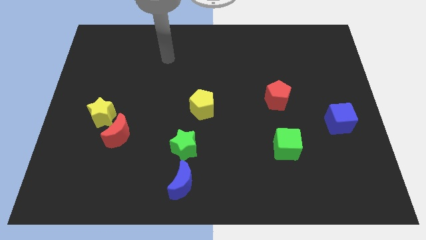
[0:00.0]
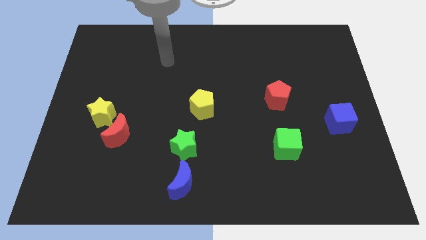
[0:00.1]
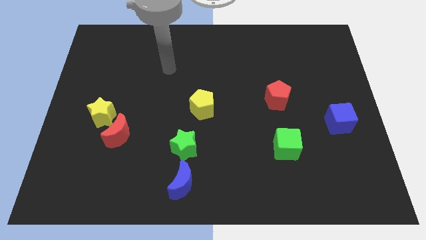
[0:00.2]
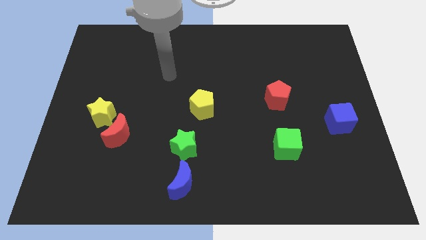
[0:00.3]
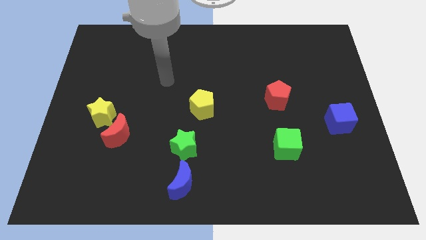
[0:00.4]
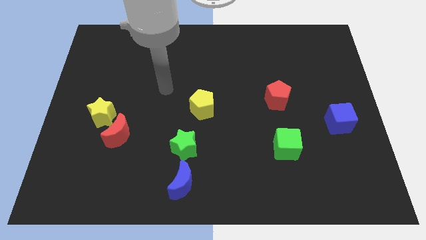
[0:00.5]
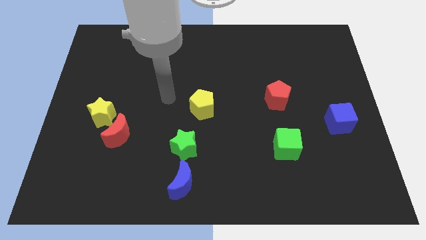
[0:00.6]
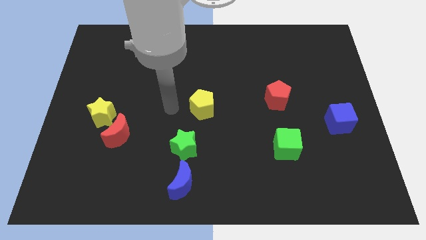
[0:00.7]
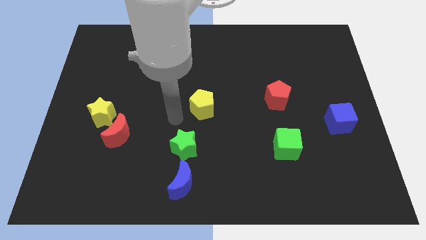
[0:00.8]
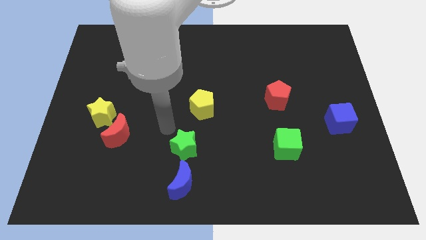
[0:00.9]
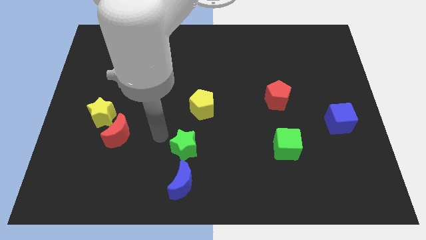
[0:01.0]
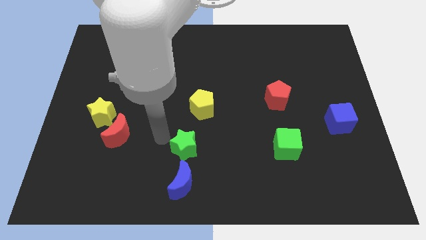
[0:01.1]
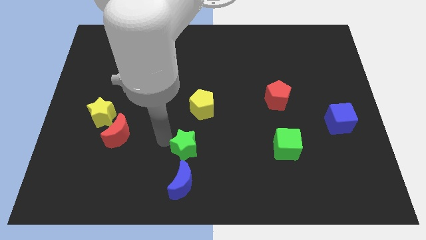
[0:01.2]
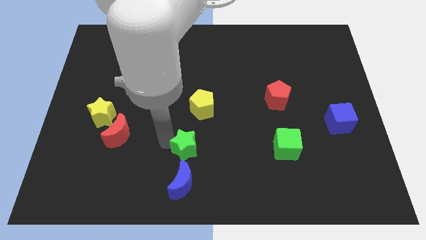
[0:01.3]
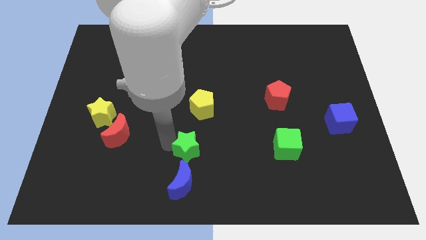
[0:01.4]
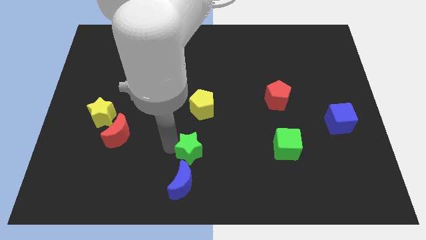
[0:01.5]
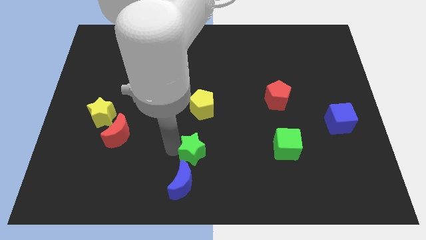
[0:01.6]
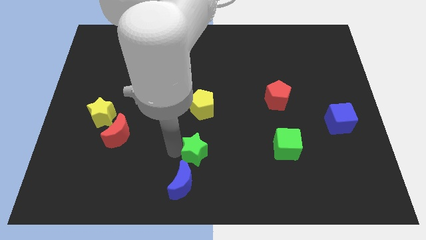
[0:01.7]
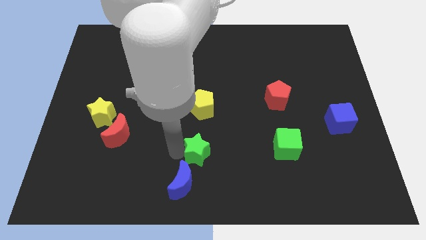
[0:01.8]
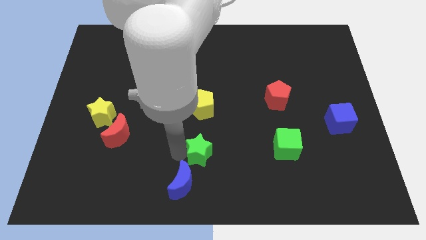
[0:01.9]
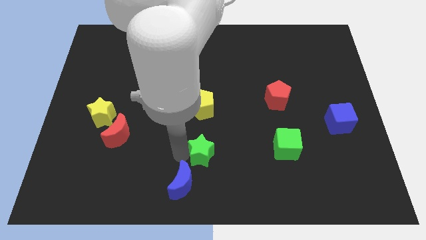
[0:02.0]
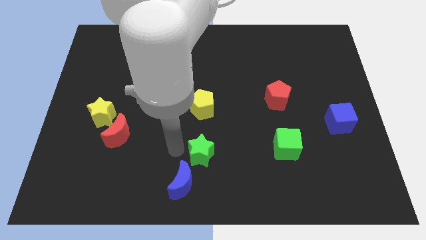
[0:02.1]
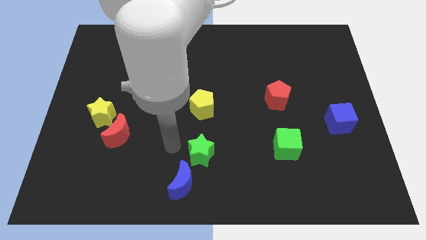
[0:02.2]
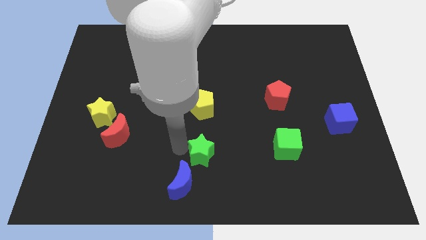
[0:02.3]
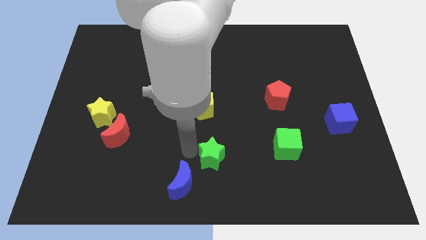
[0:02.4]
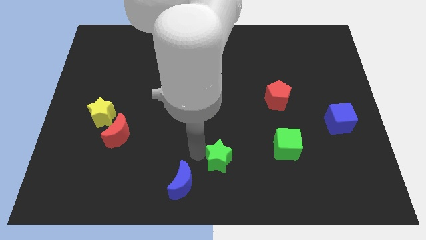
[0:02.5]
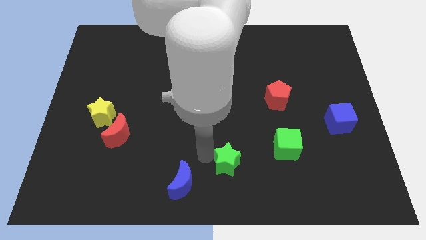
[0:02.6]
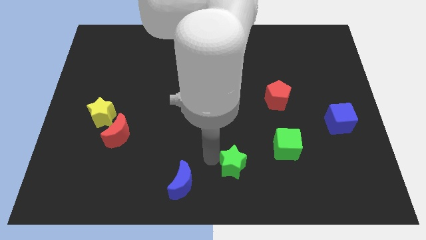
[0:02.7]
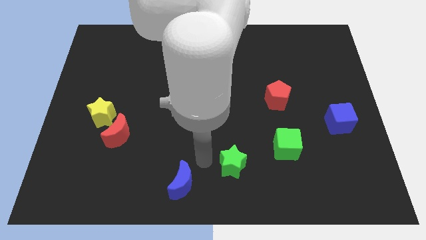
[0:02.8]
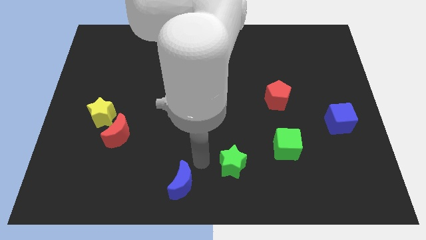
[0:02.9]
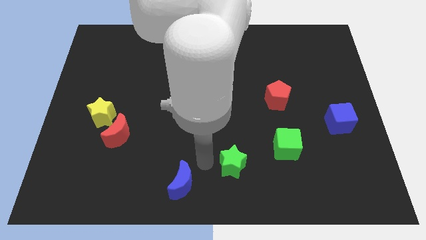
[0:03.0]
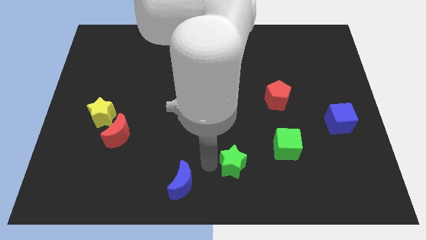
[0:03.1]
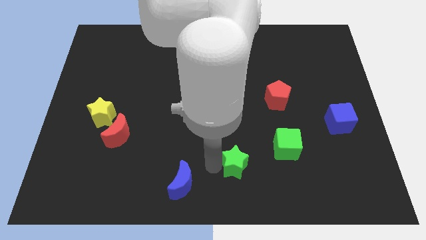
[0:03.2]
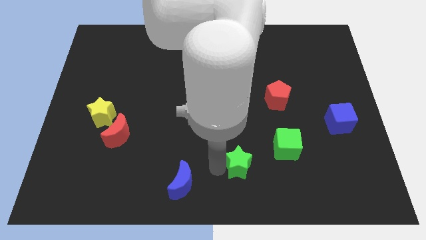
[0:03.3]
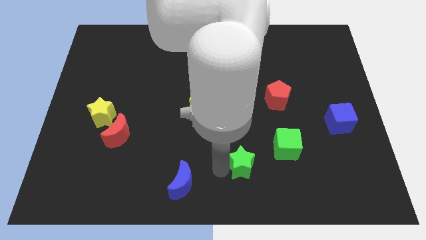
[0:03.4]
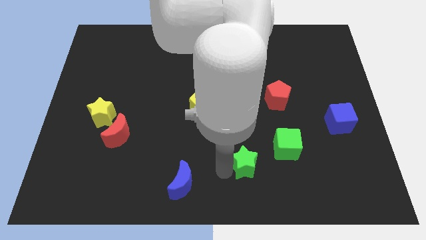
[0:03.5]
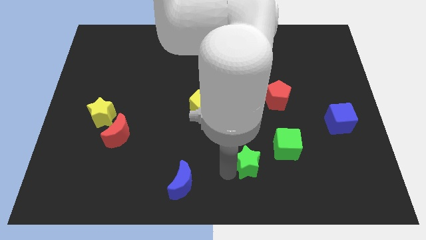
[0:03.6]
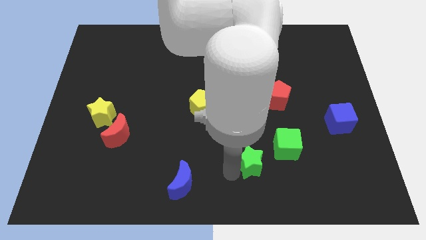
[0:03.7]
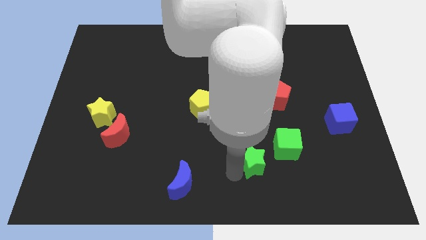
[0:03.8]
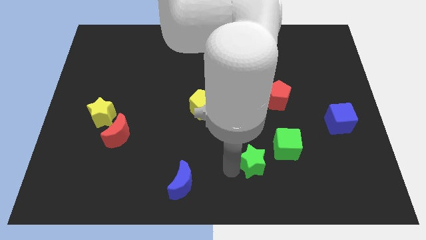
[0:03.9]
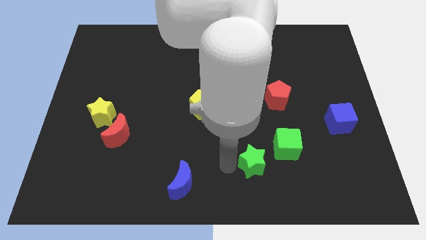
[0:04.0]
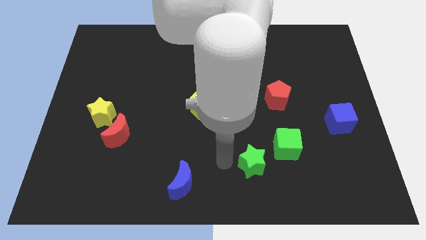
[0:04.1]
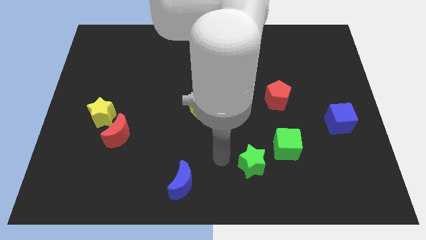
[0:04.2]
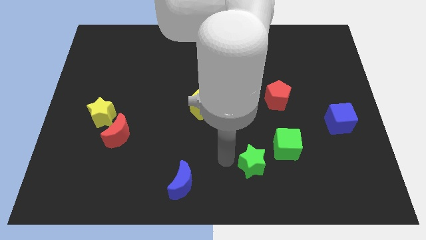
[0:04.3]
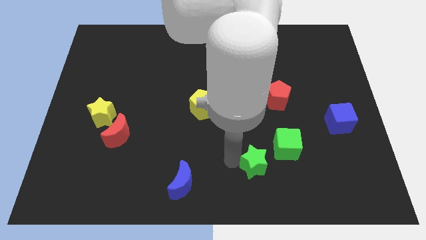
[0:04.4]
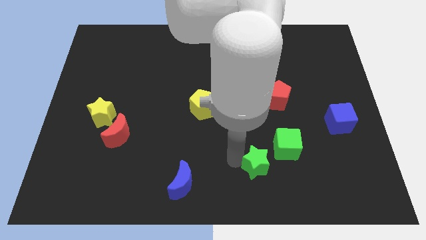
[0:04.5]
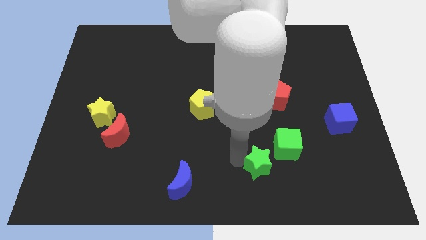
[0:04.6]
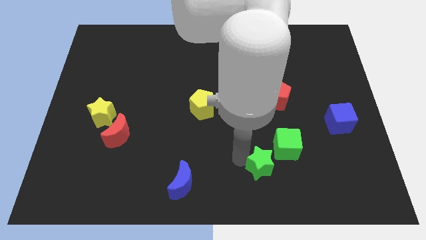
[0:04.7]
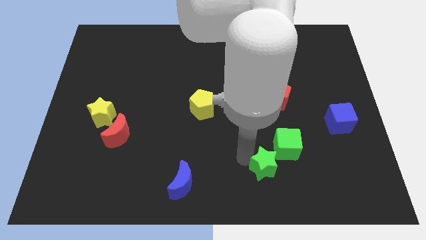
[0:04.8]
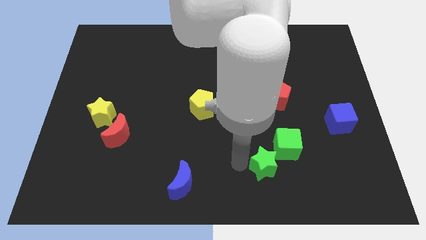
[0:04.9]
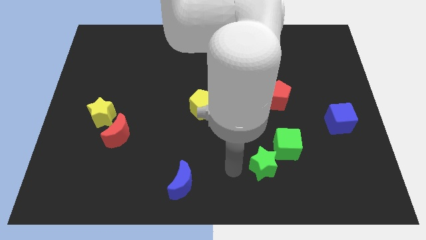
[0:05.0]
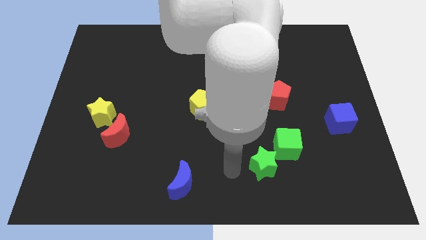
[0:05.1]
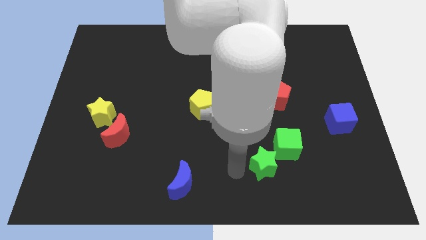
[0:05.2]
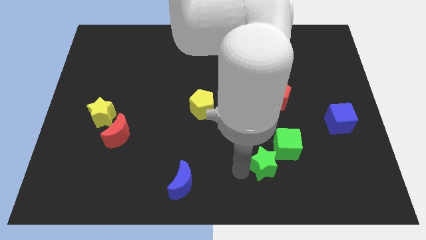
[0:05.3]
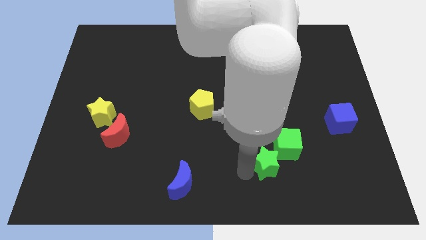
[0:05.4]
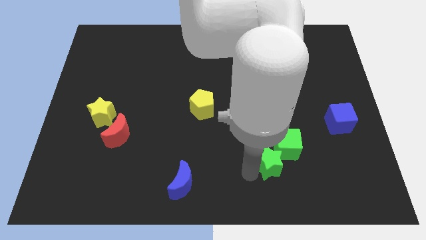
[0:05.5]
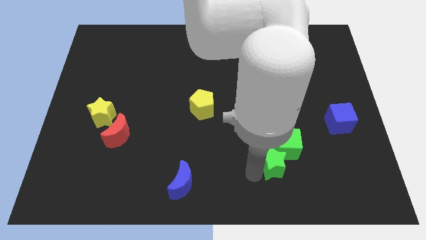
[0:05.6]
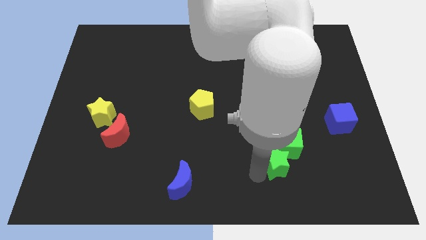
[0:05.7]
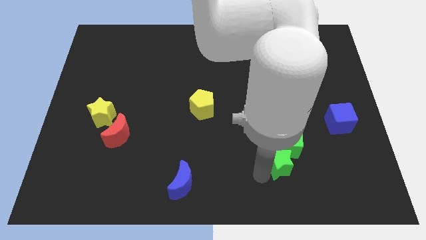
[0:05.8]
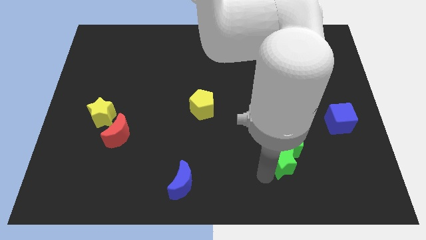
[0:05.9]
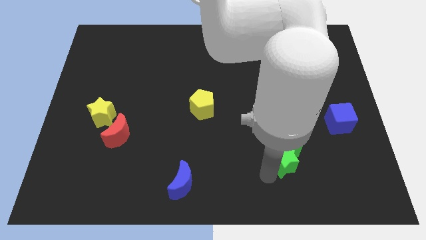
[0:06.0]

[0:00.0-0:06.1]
slide the green star to the right

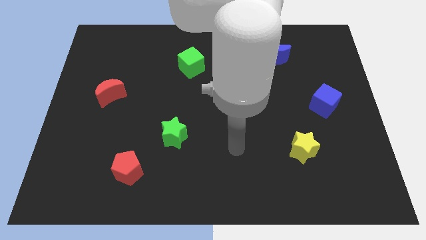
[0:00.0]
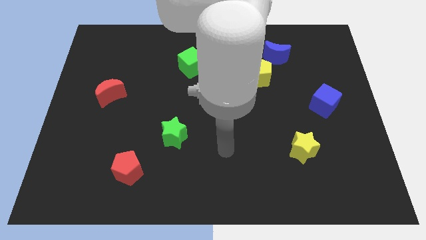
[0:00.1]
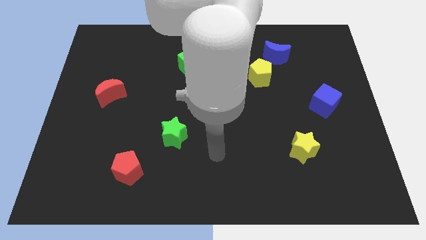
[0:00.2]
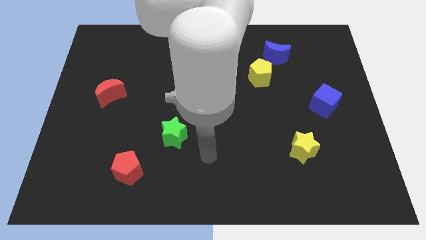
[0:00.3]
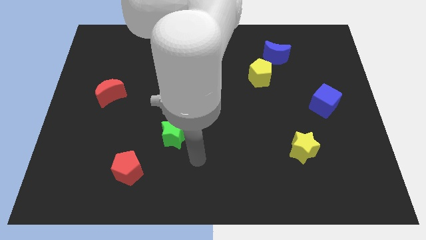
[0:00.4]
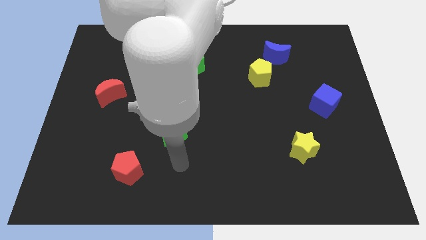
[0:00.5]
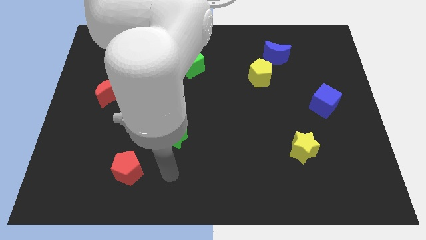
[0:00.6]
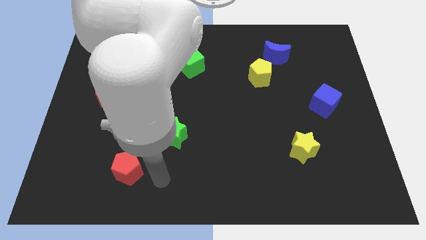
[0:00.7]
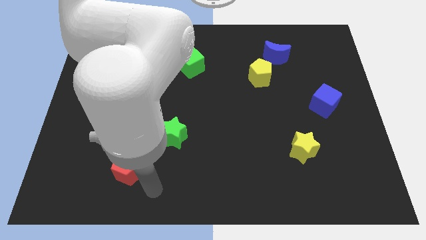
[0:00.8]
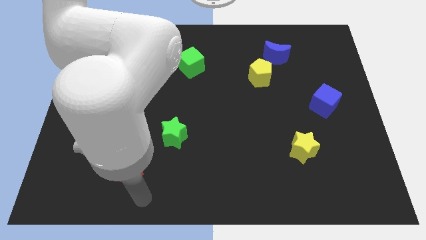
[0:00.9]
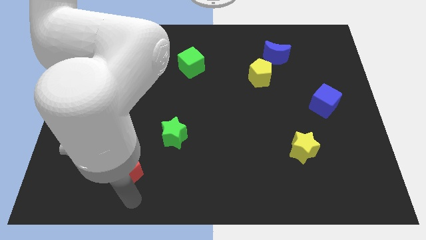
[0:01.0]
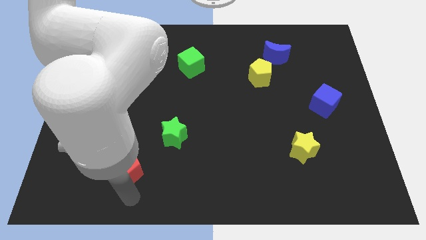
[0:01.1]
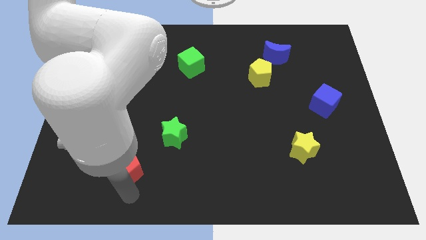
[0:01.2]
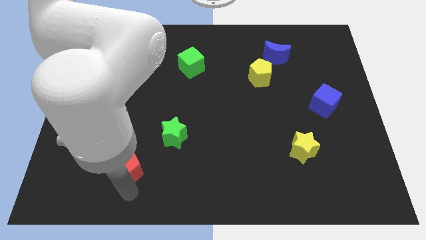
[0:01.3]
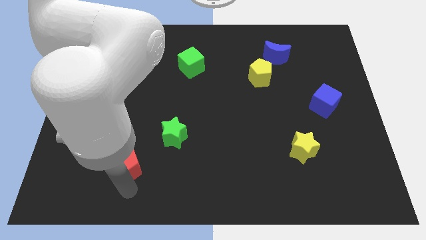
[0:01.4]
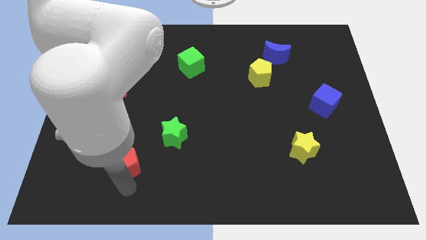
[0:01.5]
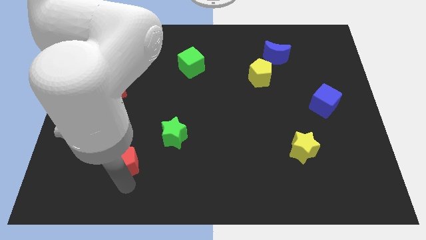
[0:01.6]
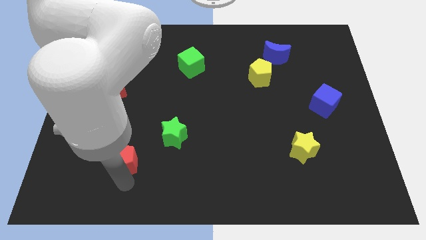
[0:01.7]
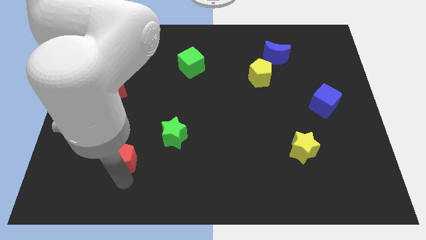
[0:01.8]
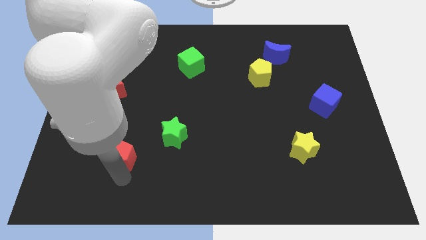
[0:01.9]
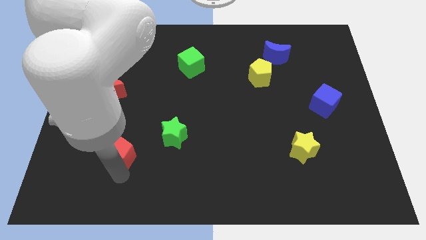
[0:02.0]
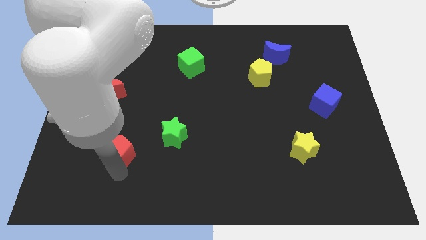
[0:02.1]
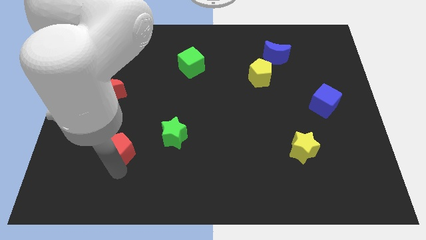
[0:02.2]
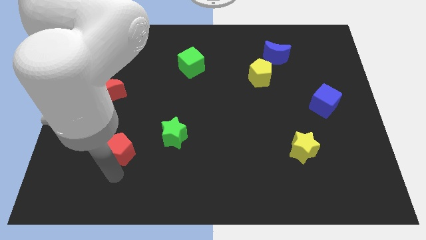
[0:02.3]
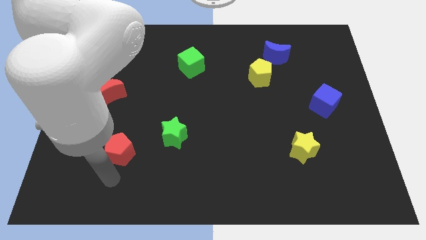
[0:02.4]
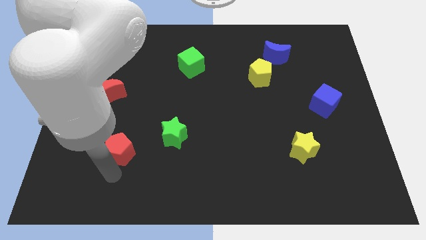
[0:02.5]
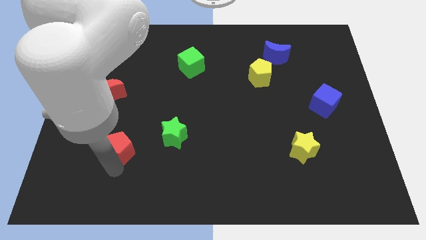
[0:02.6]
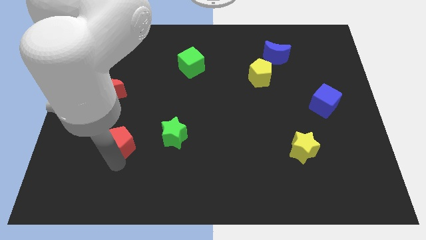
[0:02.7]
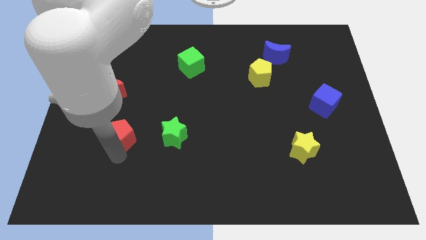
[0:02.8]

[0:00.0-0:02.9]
slide the red pentagon upwards a little
